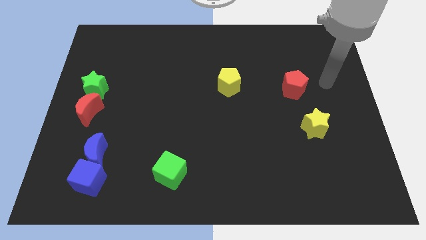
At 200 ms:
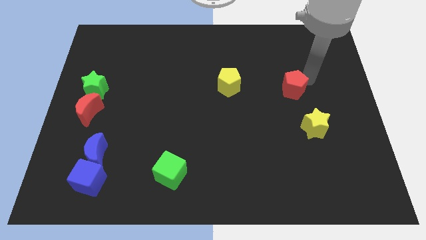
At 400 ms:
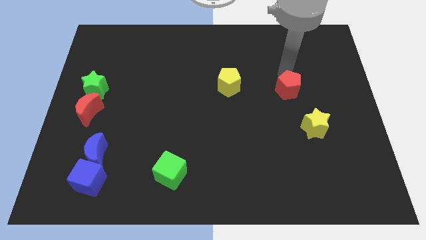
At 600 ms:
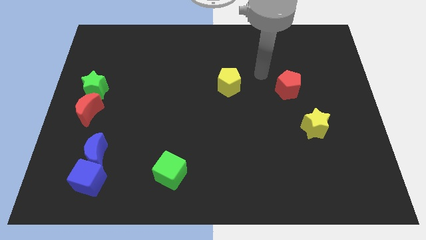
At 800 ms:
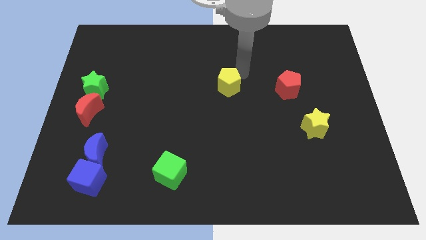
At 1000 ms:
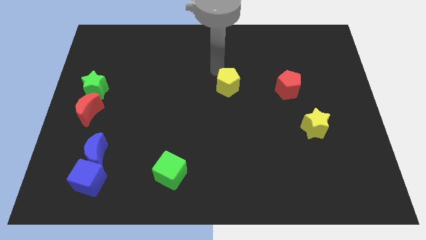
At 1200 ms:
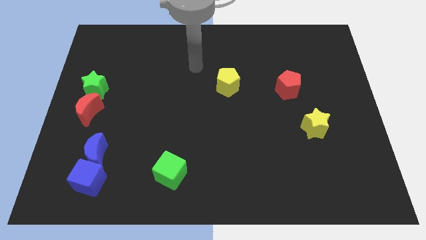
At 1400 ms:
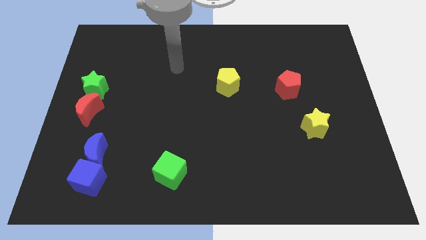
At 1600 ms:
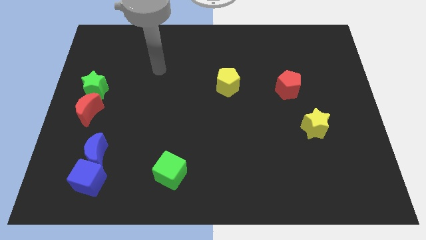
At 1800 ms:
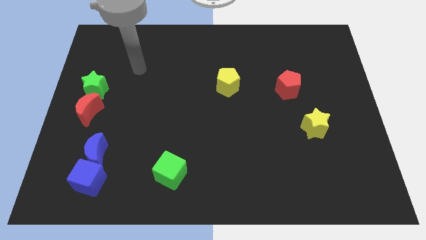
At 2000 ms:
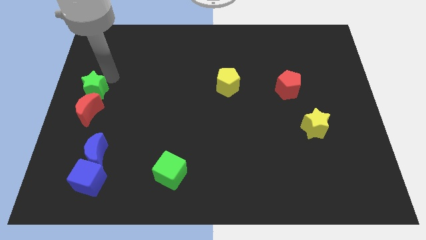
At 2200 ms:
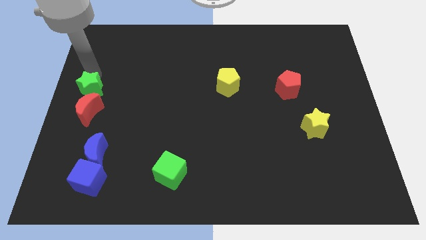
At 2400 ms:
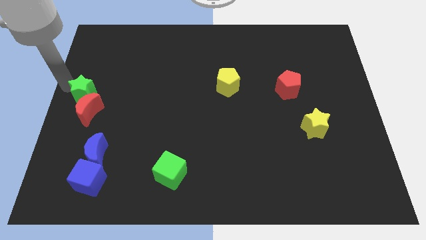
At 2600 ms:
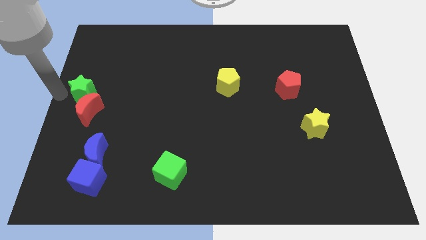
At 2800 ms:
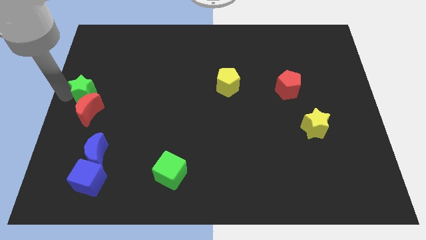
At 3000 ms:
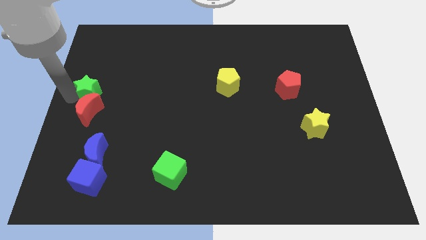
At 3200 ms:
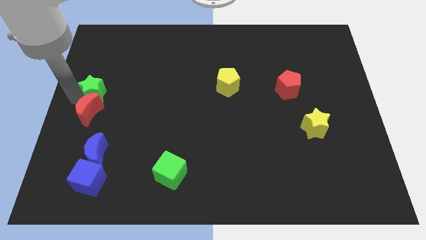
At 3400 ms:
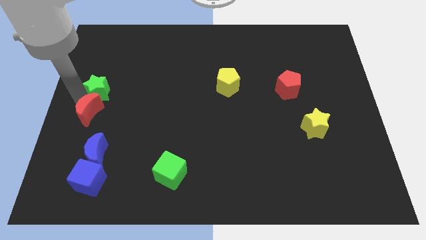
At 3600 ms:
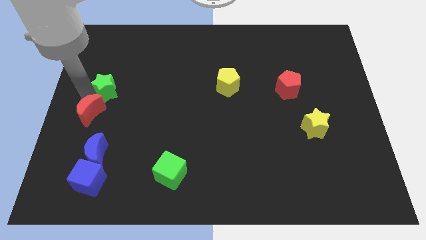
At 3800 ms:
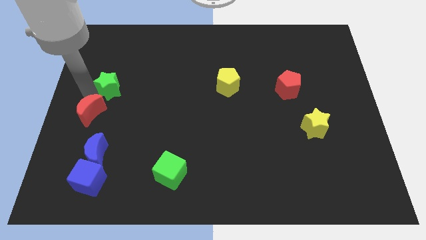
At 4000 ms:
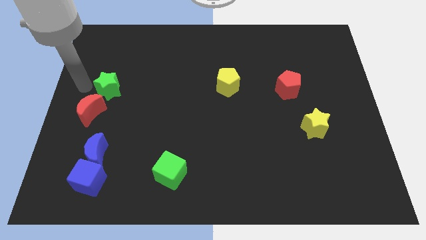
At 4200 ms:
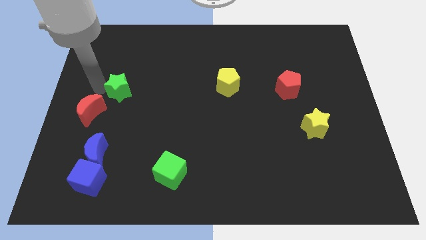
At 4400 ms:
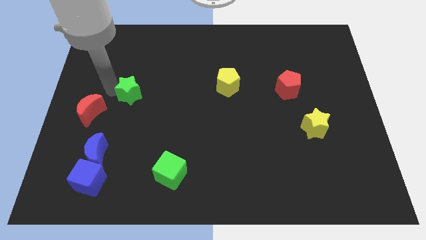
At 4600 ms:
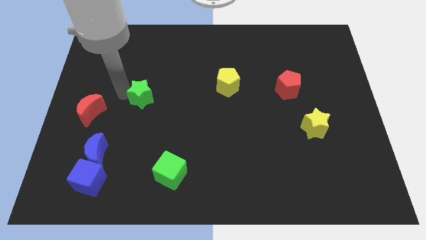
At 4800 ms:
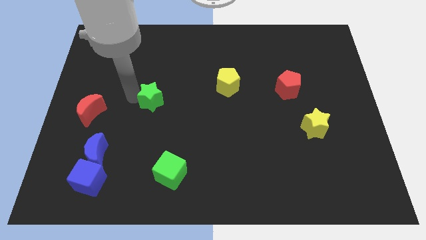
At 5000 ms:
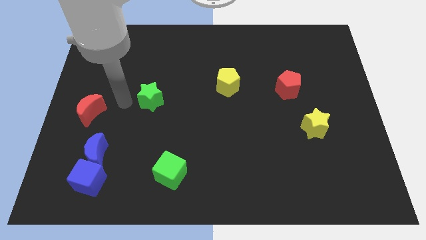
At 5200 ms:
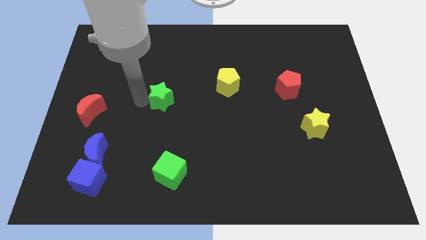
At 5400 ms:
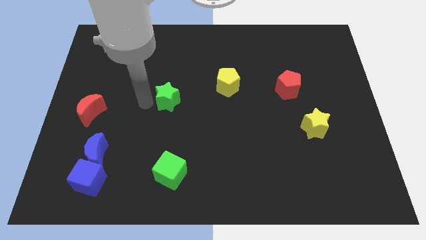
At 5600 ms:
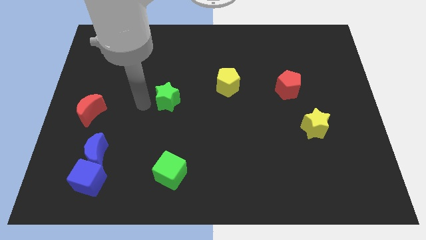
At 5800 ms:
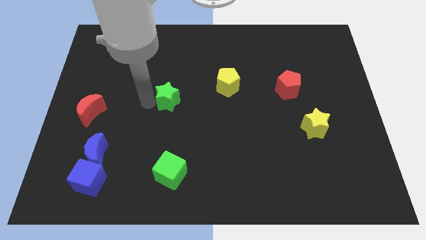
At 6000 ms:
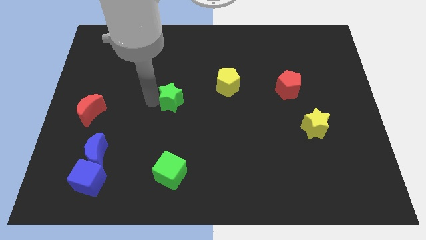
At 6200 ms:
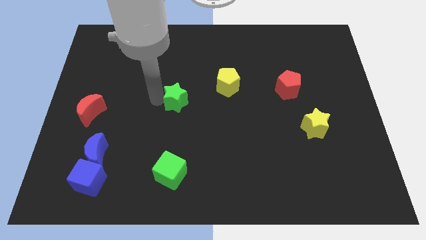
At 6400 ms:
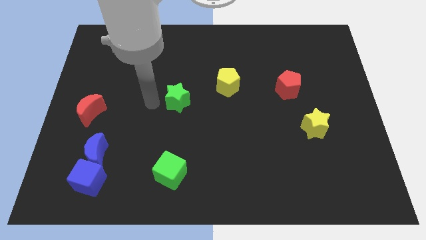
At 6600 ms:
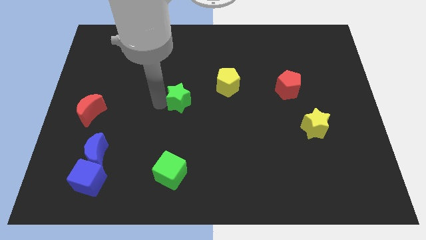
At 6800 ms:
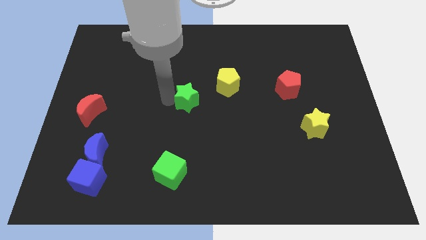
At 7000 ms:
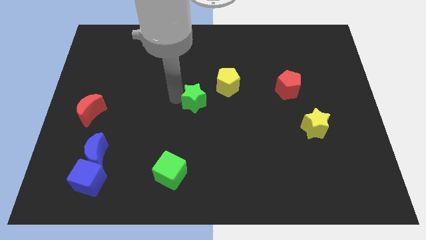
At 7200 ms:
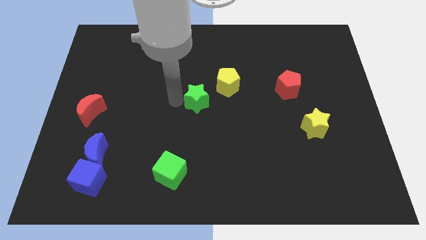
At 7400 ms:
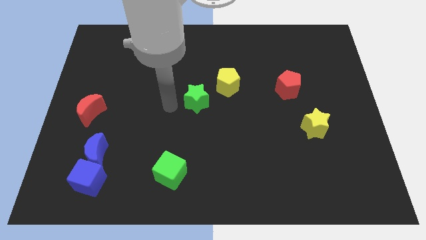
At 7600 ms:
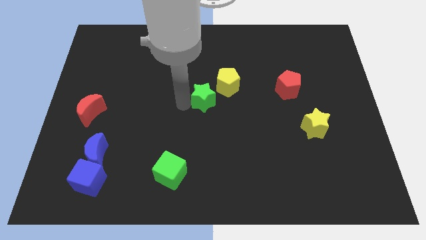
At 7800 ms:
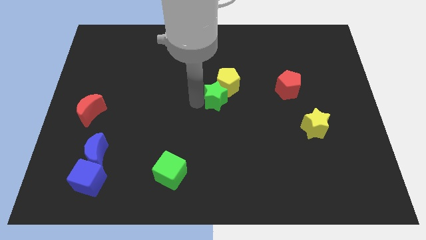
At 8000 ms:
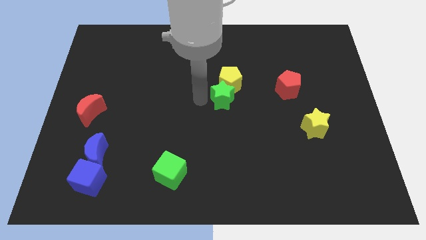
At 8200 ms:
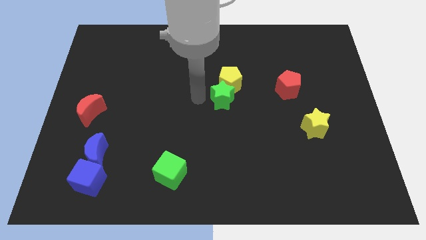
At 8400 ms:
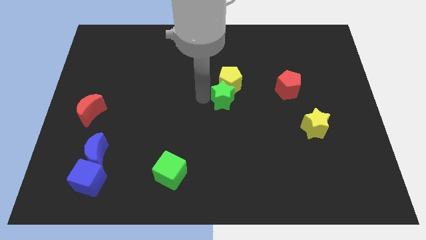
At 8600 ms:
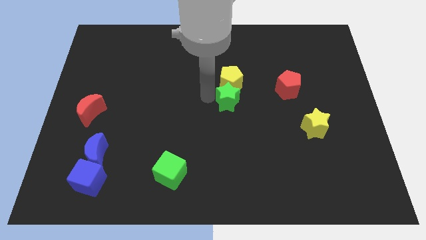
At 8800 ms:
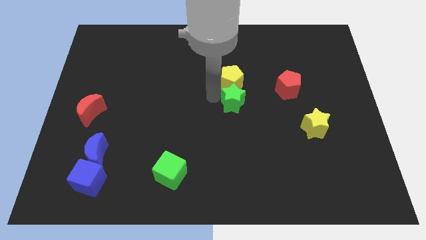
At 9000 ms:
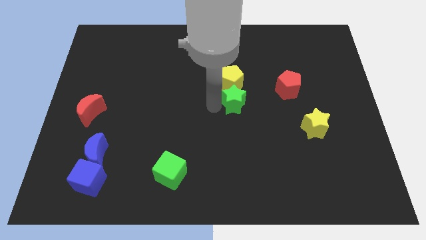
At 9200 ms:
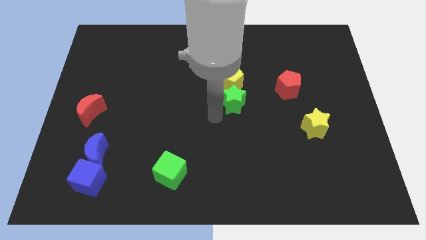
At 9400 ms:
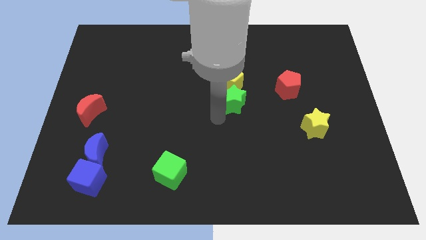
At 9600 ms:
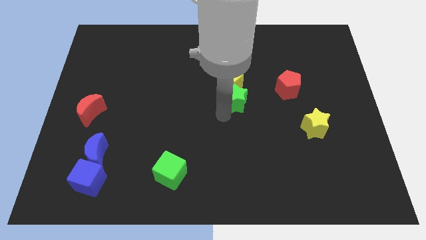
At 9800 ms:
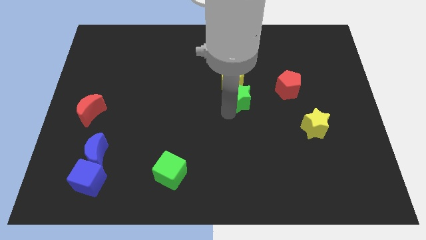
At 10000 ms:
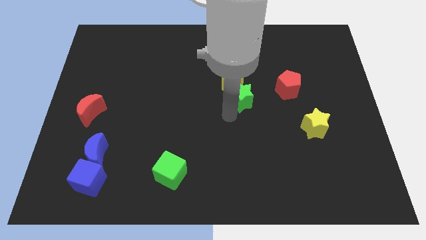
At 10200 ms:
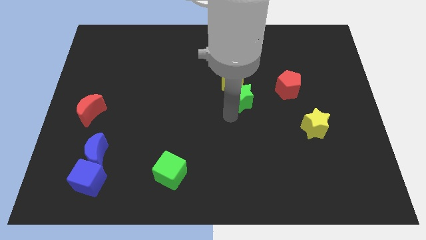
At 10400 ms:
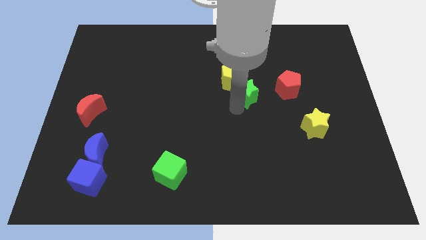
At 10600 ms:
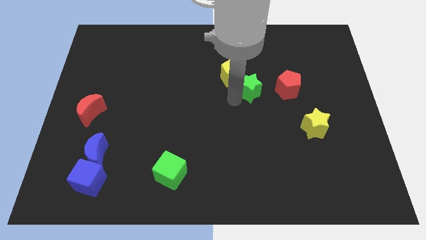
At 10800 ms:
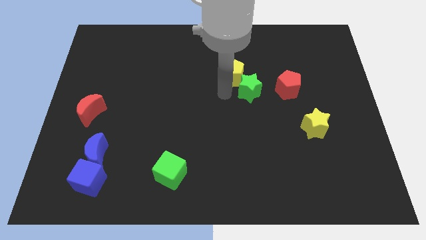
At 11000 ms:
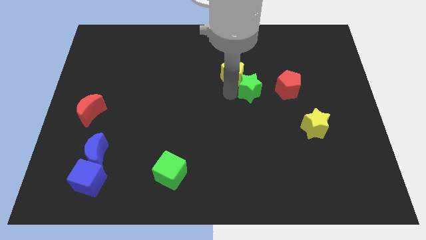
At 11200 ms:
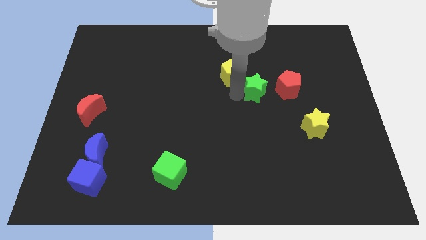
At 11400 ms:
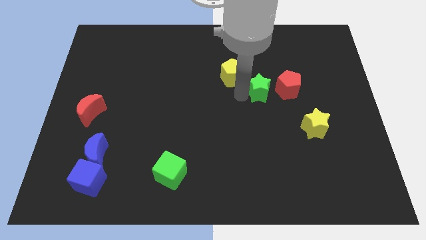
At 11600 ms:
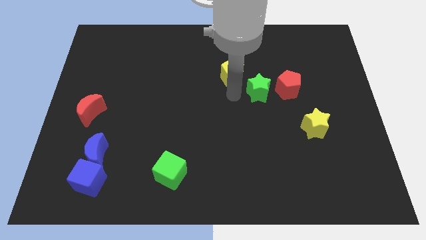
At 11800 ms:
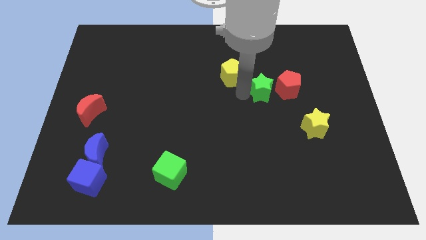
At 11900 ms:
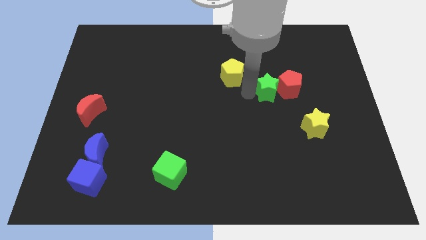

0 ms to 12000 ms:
push the green star to the red pentagon

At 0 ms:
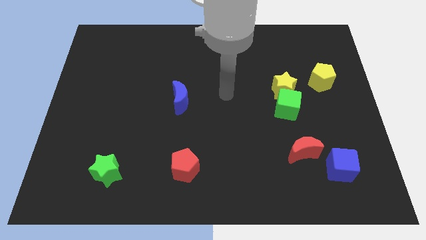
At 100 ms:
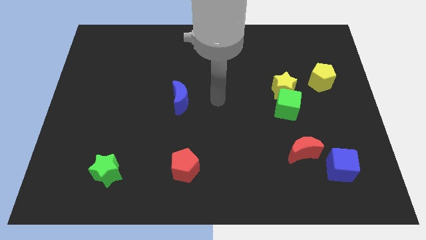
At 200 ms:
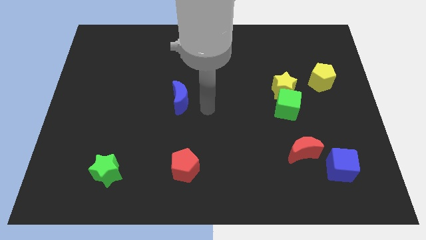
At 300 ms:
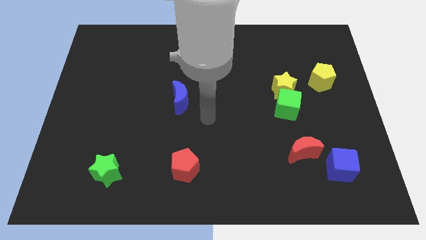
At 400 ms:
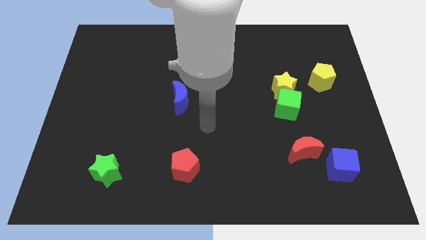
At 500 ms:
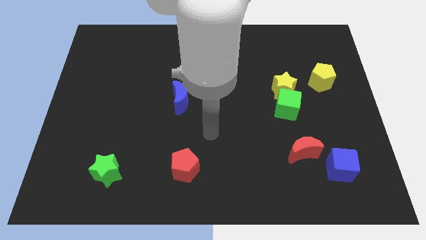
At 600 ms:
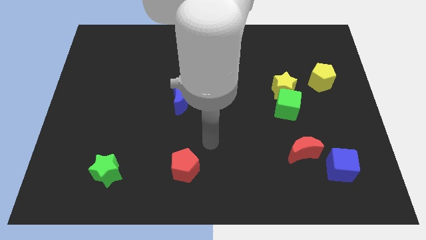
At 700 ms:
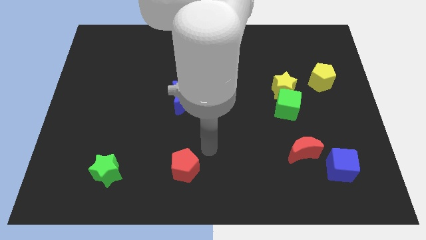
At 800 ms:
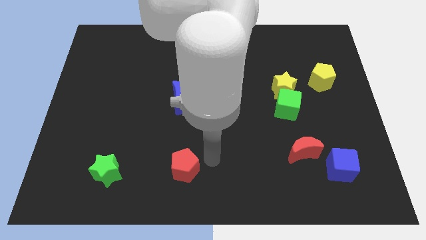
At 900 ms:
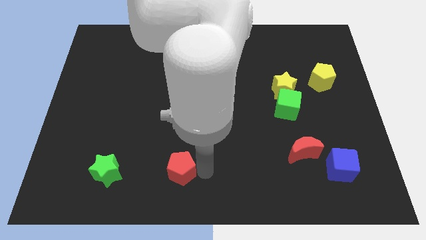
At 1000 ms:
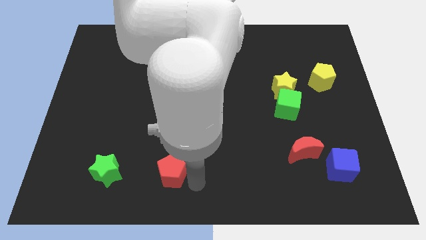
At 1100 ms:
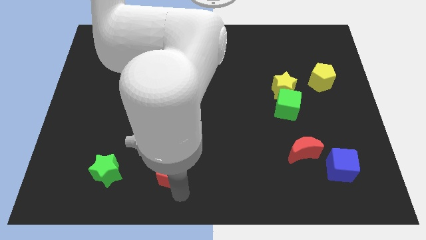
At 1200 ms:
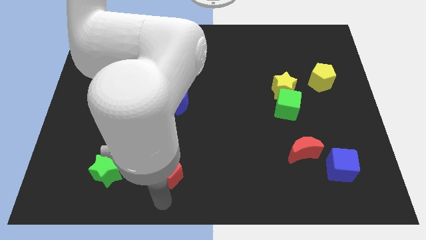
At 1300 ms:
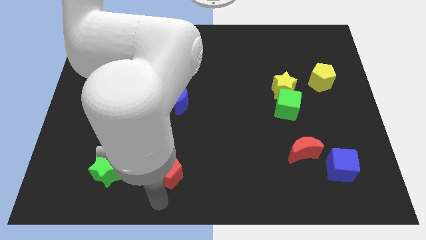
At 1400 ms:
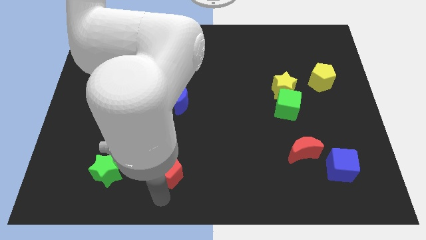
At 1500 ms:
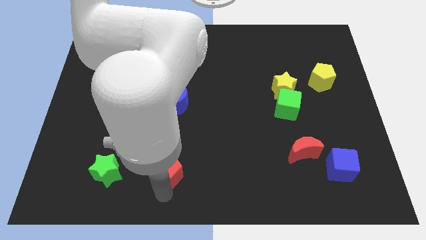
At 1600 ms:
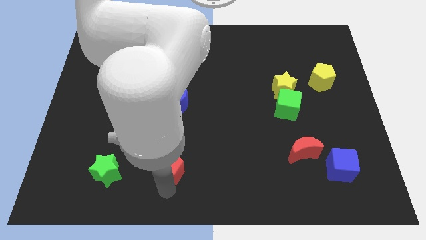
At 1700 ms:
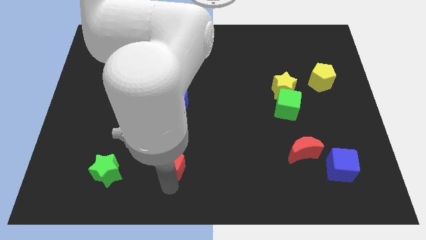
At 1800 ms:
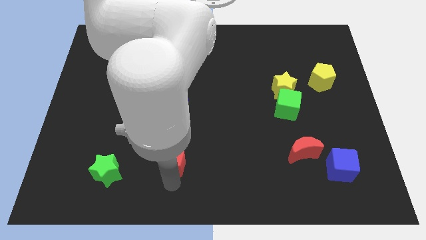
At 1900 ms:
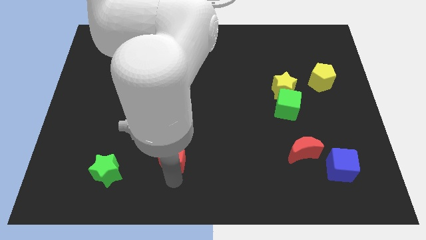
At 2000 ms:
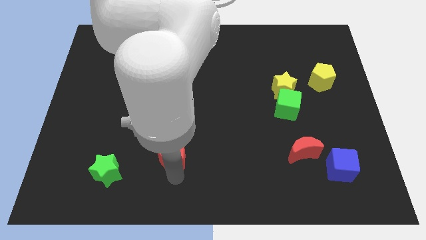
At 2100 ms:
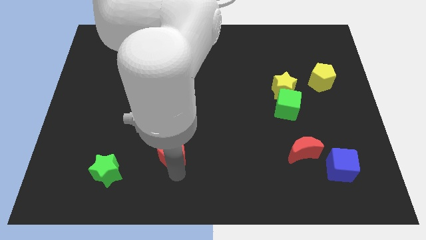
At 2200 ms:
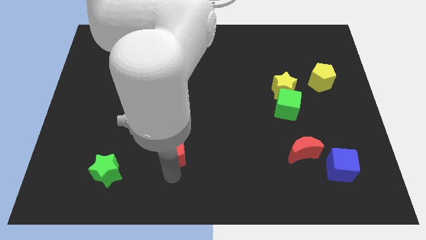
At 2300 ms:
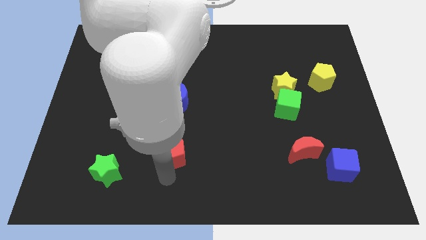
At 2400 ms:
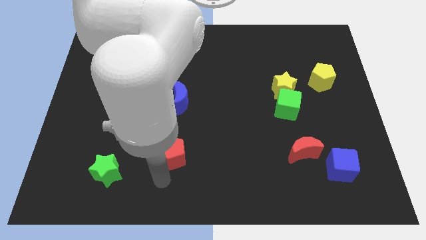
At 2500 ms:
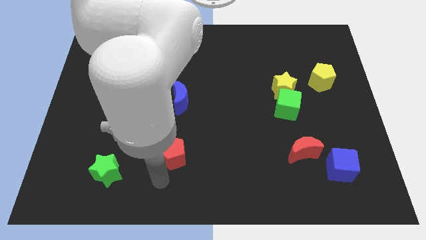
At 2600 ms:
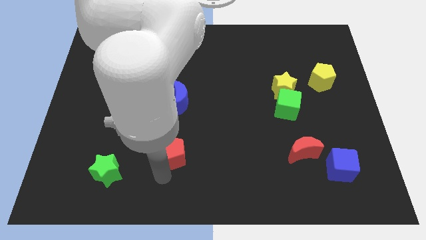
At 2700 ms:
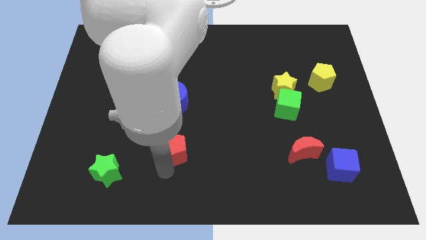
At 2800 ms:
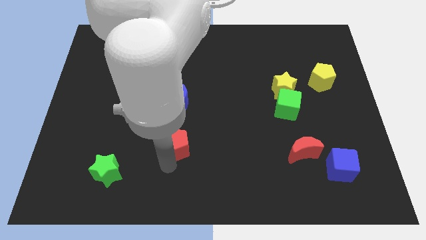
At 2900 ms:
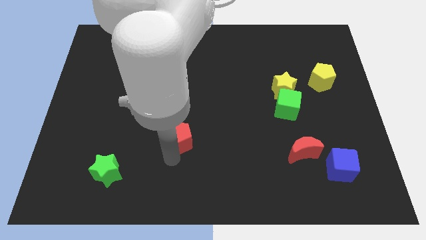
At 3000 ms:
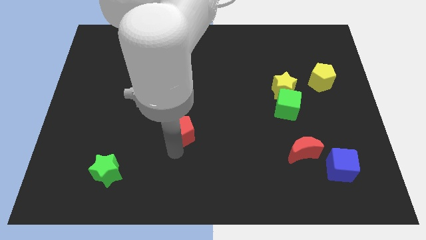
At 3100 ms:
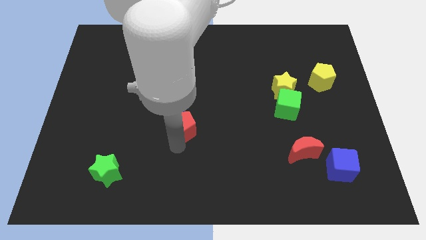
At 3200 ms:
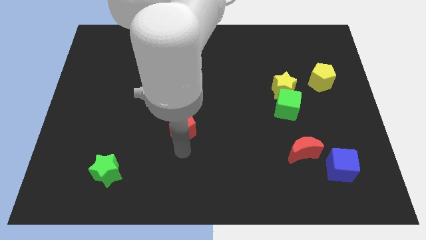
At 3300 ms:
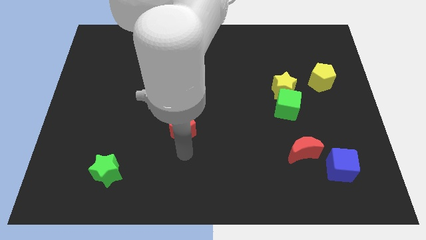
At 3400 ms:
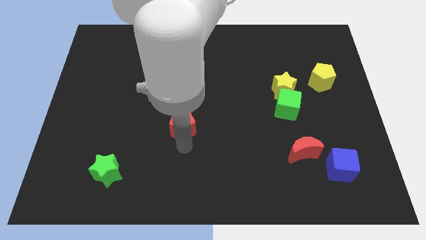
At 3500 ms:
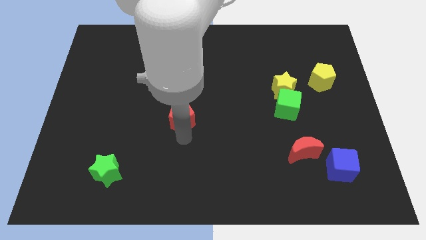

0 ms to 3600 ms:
push the red pentagon towards the blue moon
